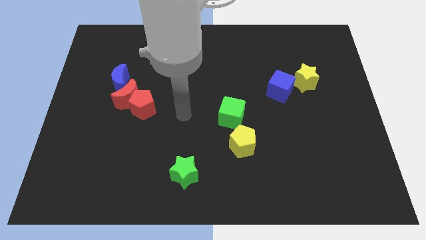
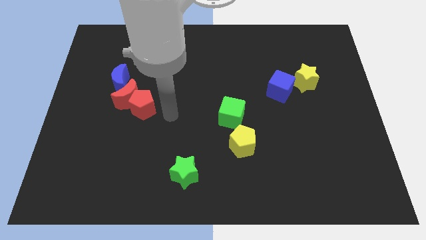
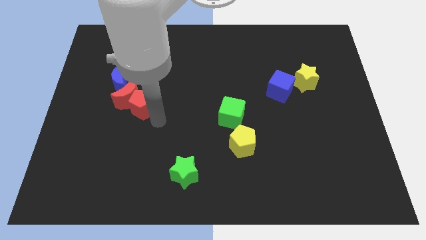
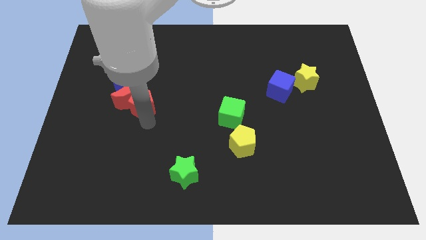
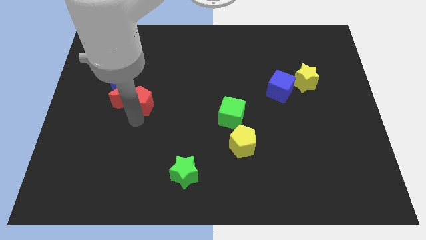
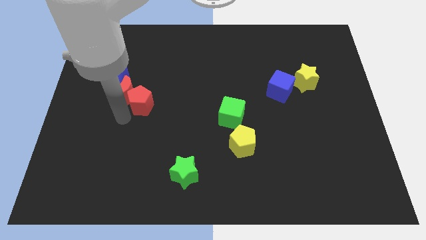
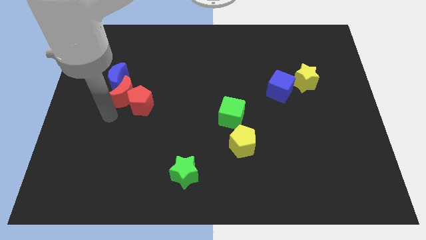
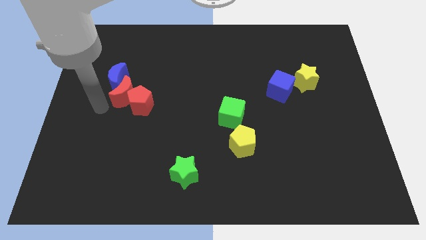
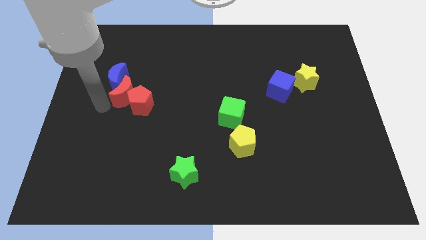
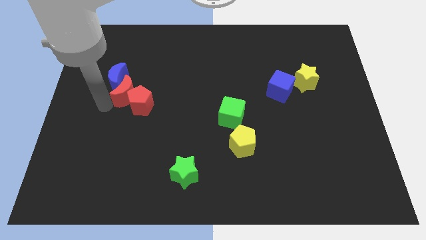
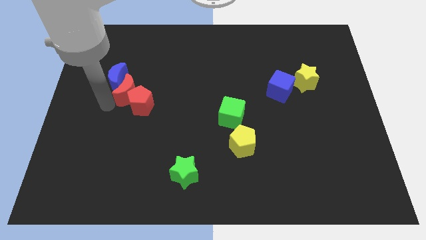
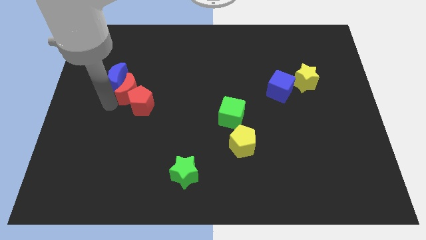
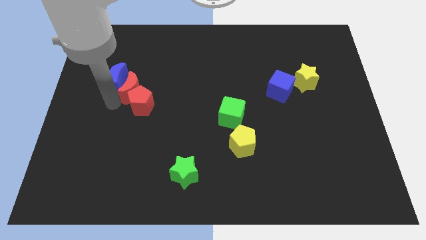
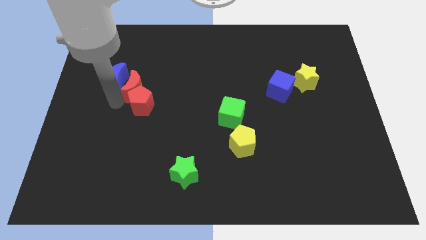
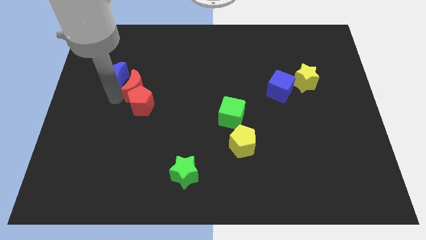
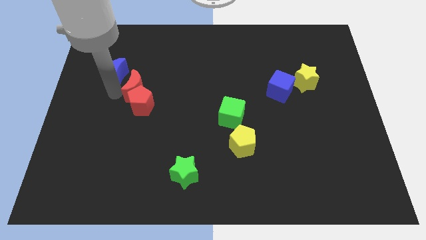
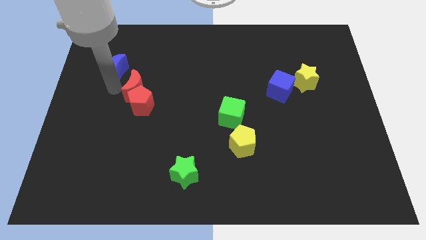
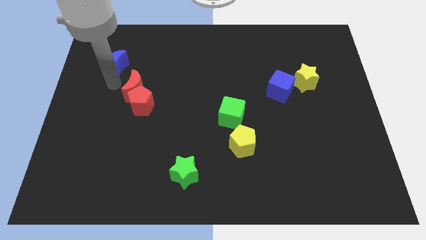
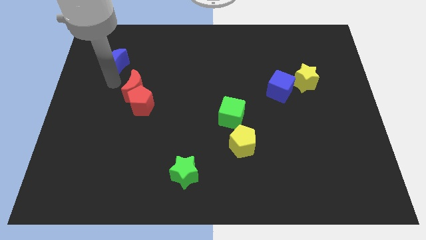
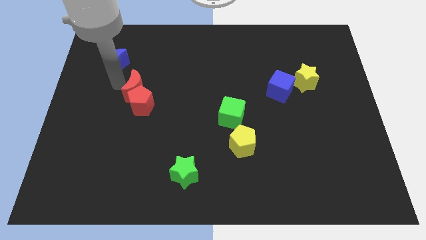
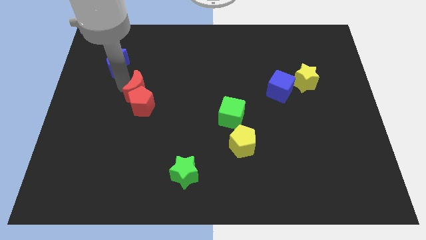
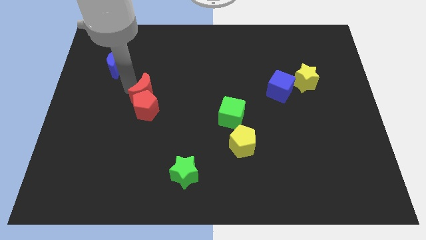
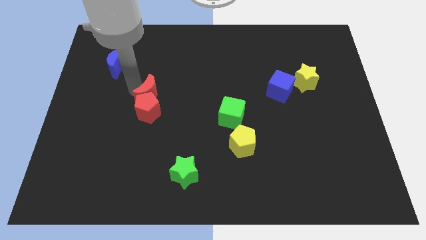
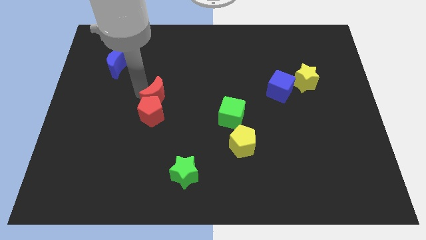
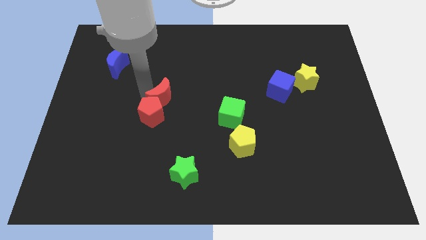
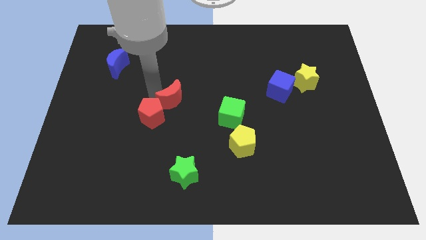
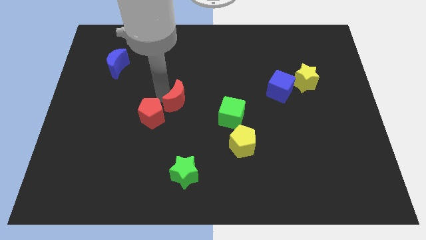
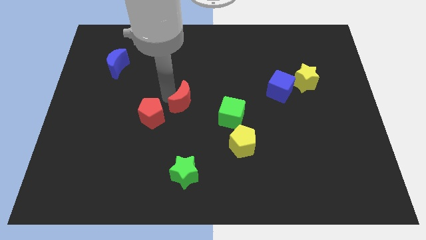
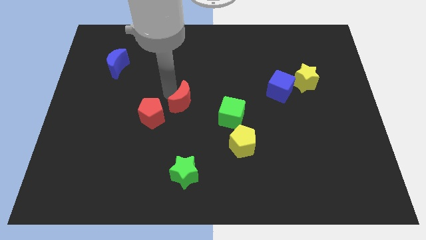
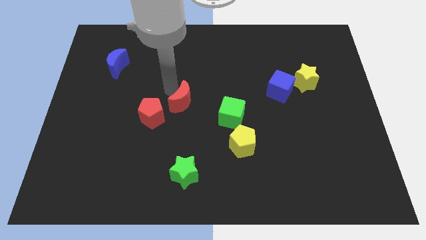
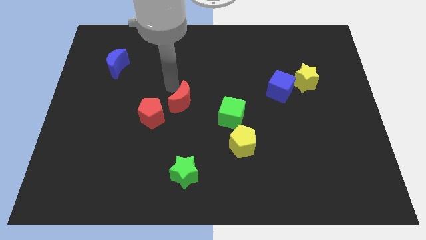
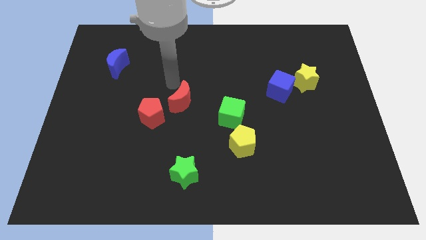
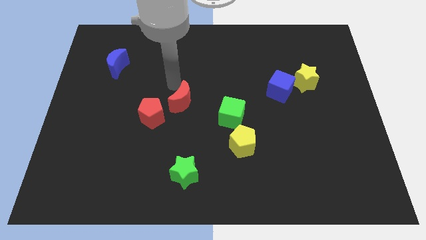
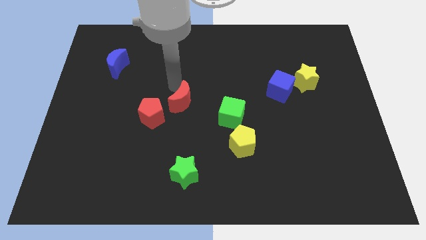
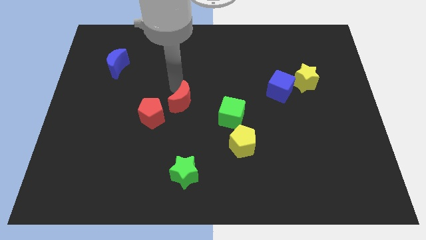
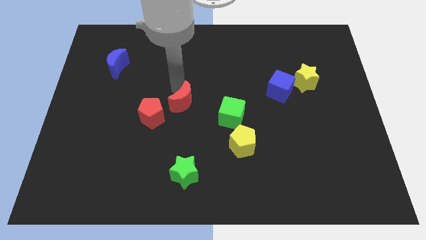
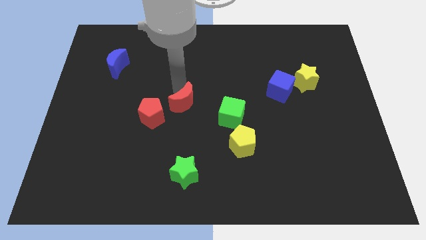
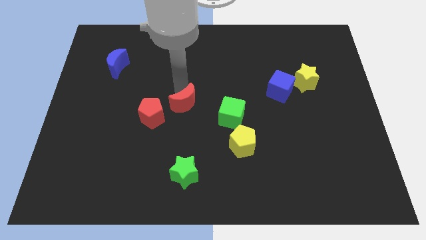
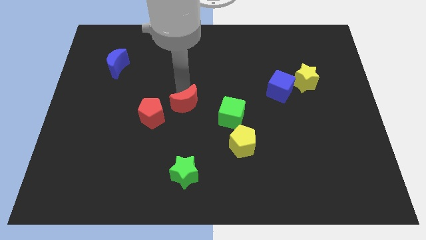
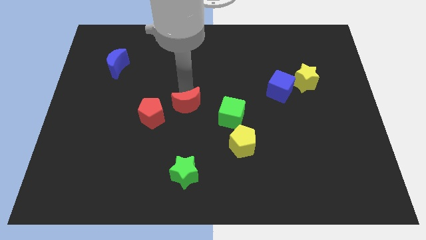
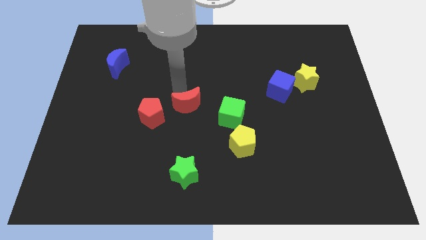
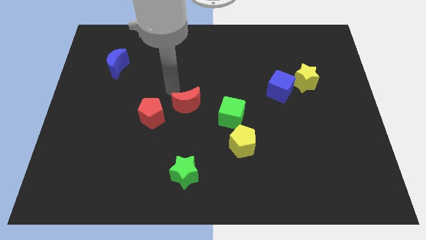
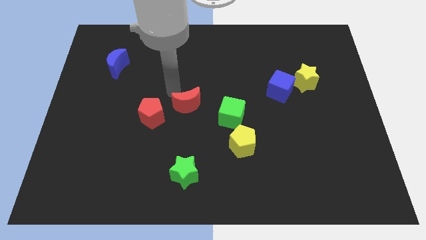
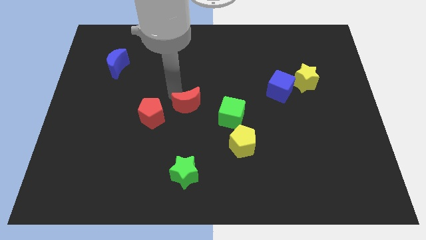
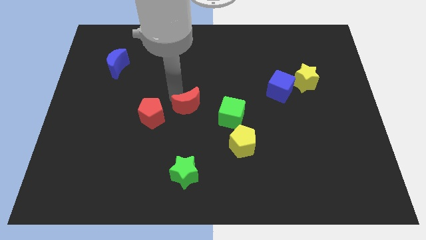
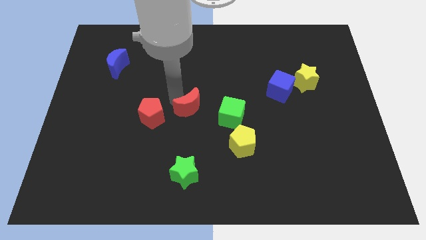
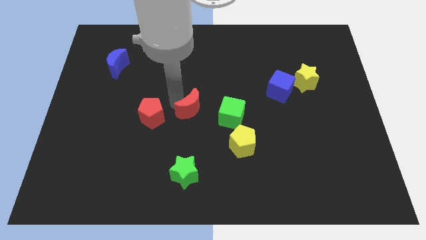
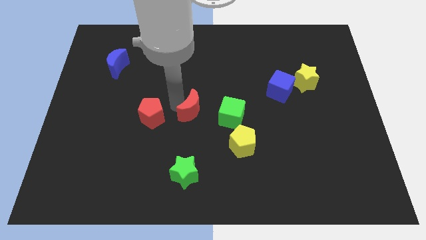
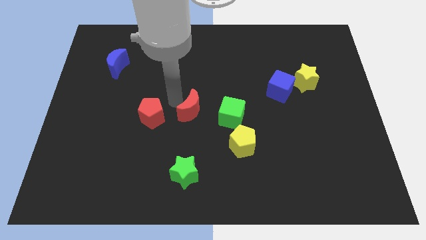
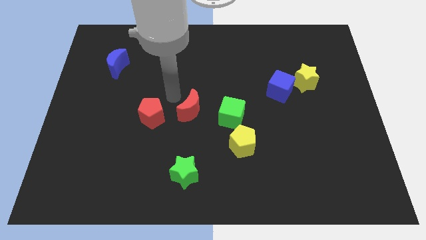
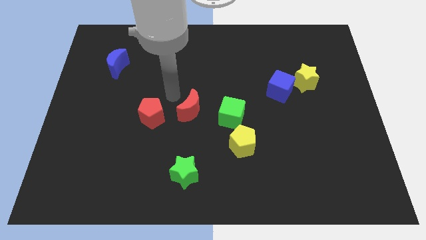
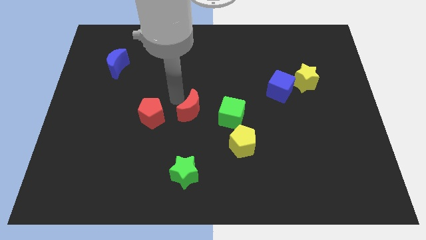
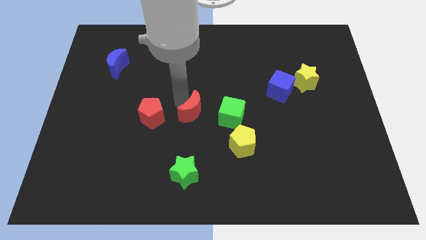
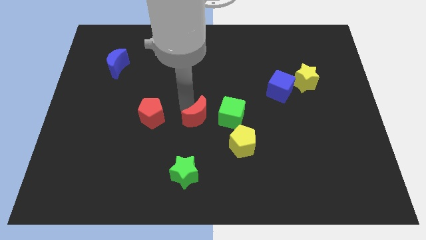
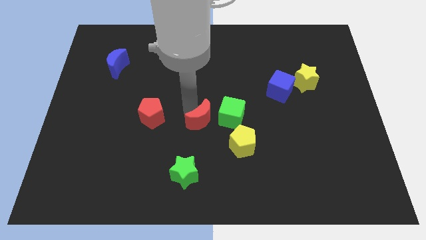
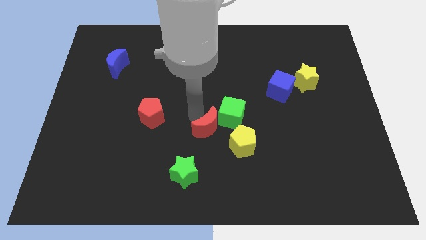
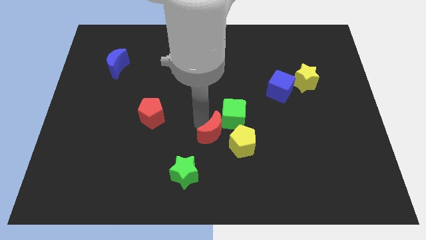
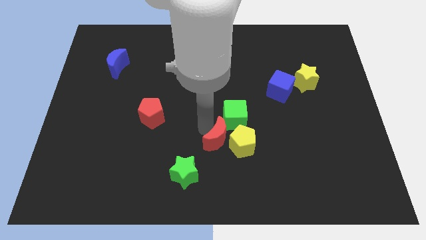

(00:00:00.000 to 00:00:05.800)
put the red moon next to the yellow pentagon
